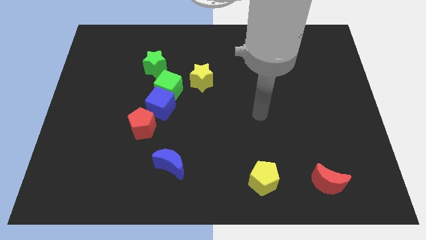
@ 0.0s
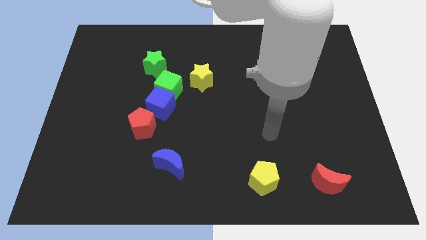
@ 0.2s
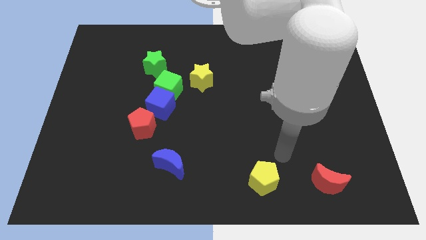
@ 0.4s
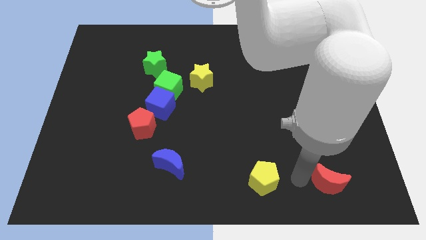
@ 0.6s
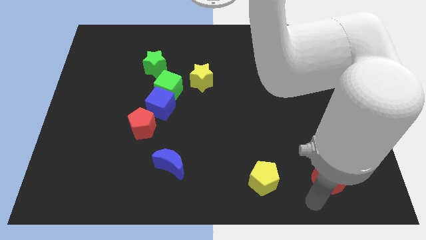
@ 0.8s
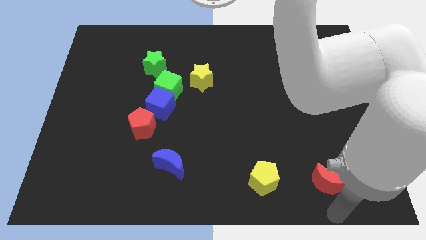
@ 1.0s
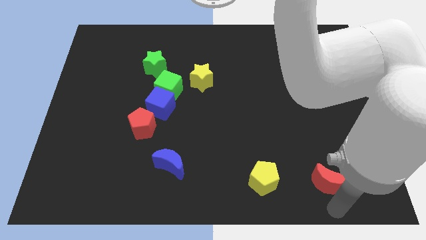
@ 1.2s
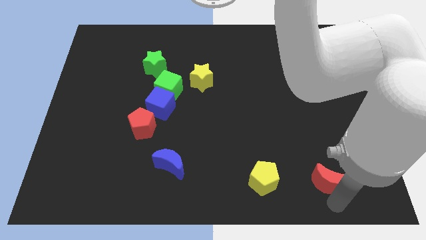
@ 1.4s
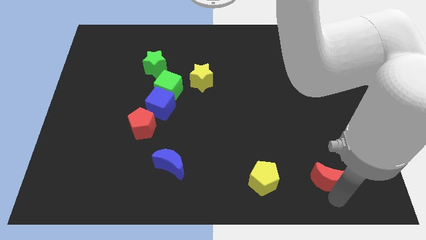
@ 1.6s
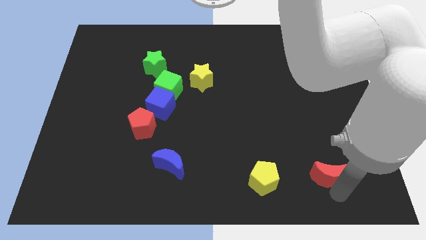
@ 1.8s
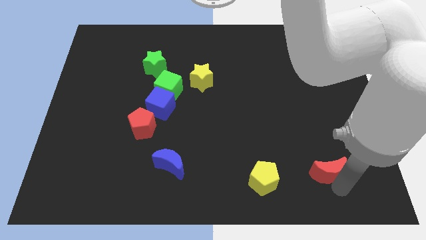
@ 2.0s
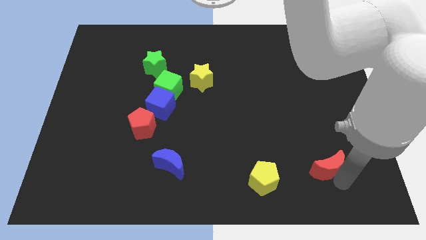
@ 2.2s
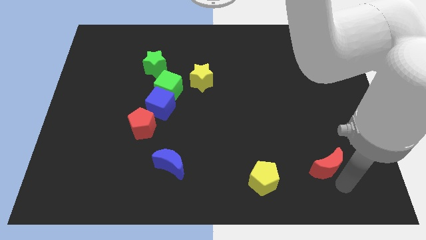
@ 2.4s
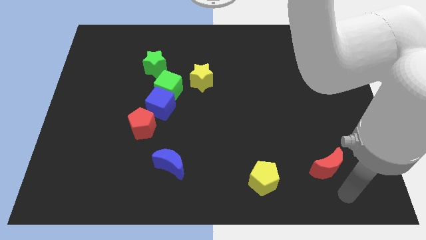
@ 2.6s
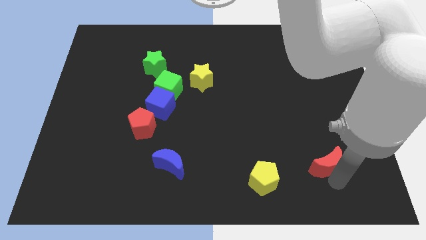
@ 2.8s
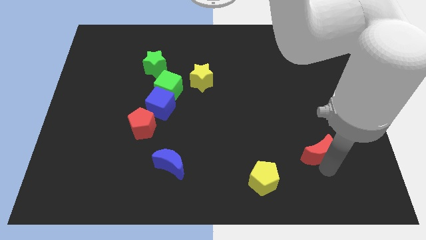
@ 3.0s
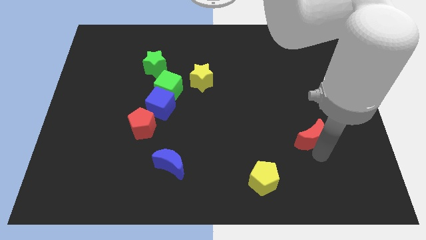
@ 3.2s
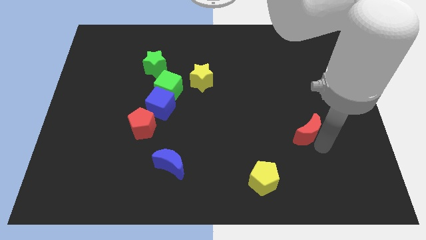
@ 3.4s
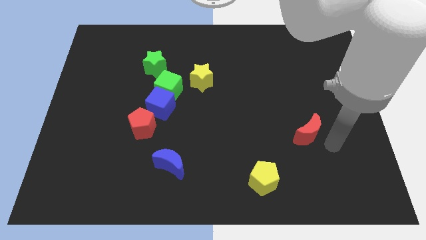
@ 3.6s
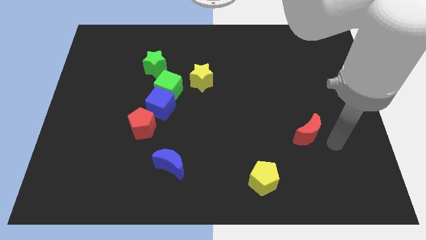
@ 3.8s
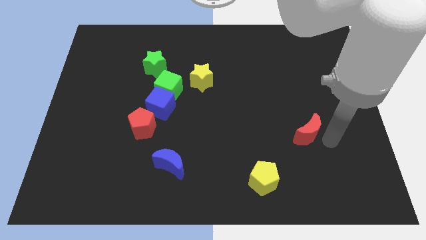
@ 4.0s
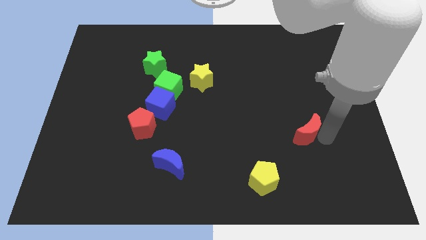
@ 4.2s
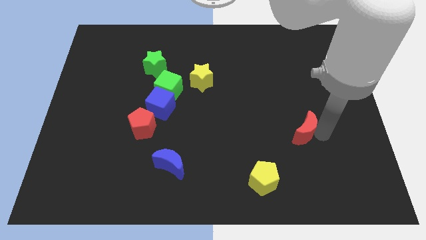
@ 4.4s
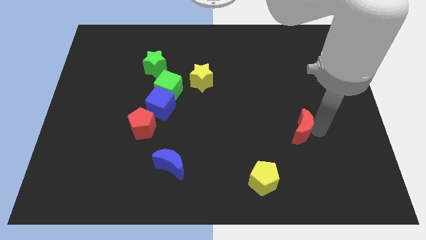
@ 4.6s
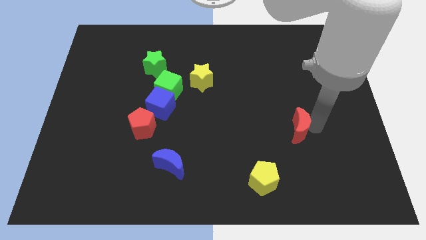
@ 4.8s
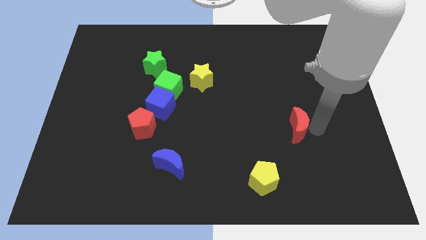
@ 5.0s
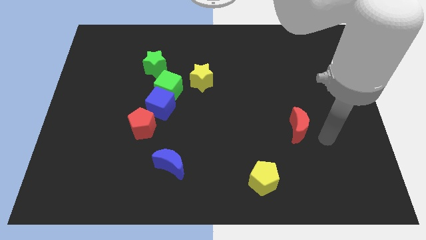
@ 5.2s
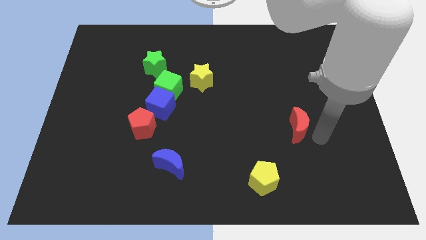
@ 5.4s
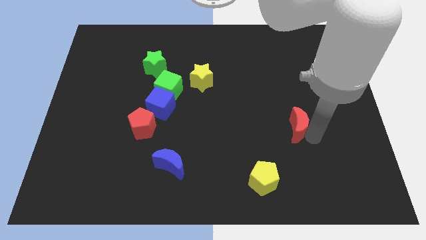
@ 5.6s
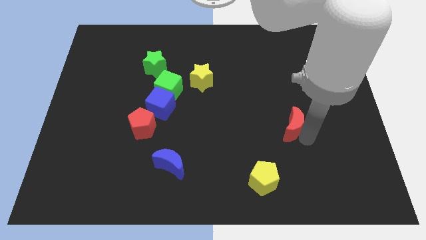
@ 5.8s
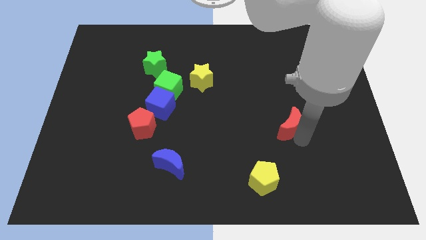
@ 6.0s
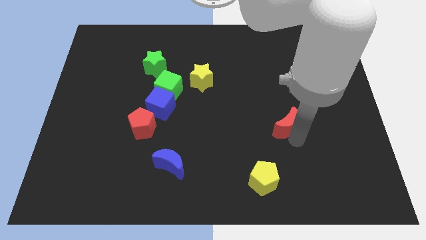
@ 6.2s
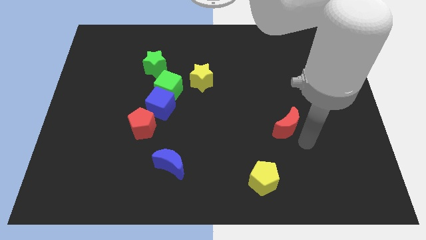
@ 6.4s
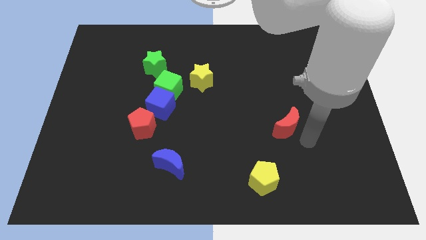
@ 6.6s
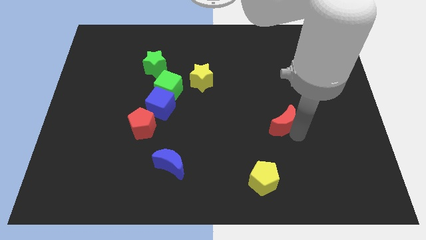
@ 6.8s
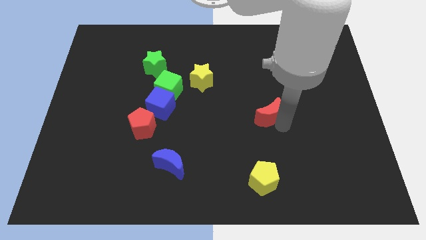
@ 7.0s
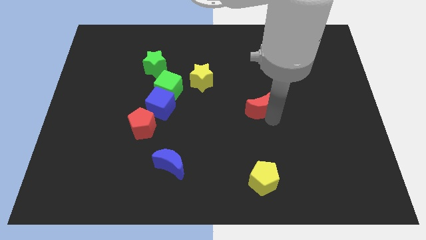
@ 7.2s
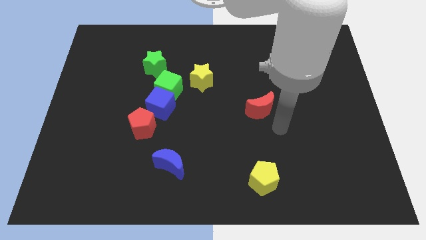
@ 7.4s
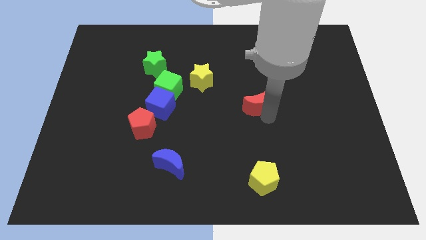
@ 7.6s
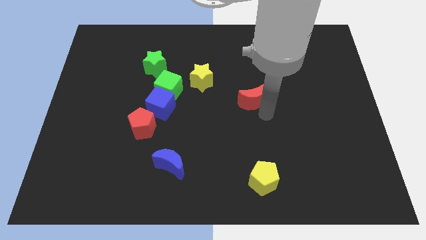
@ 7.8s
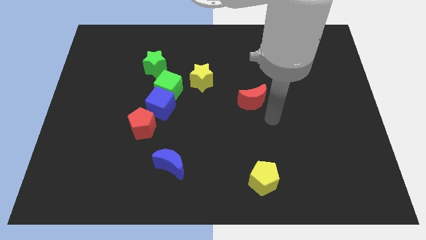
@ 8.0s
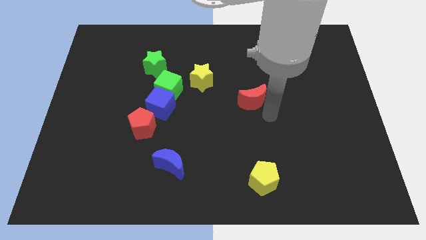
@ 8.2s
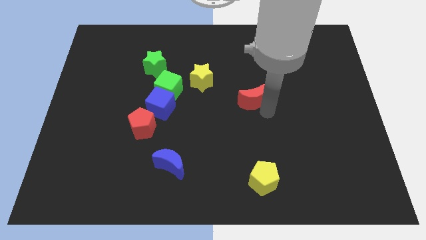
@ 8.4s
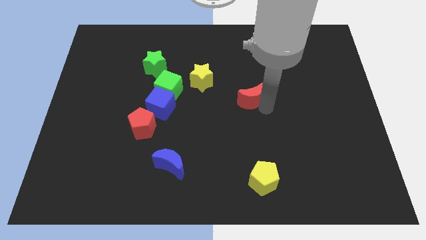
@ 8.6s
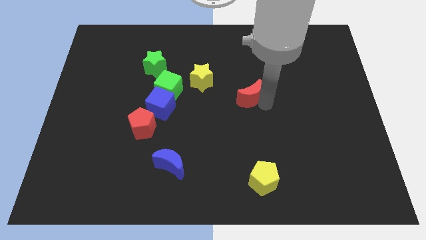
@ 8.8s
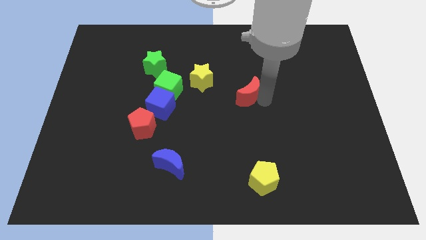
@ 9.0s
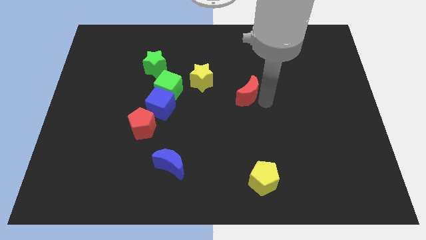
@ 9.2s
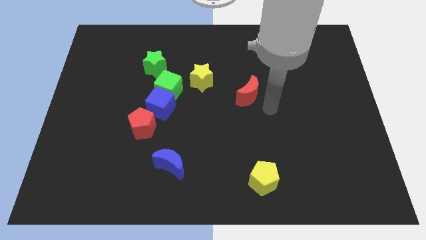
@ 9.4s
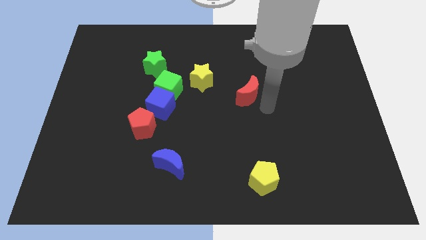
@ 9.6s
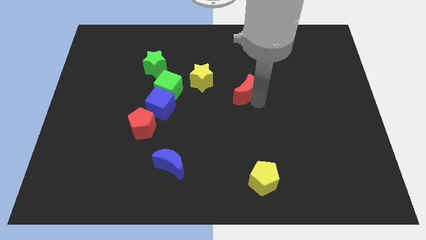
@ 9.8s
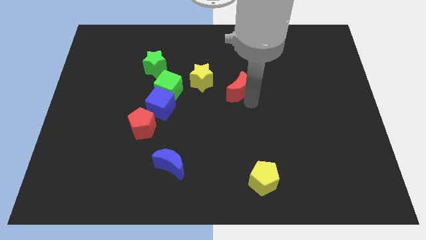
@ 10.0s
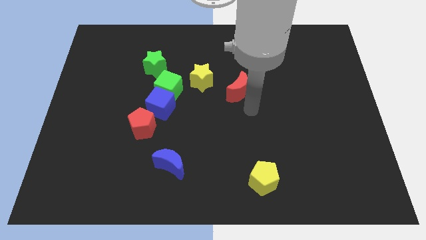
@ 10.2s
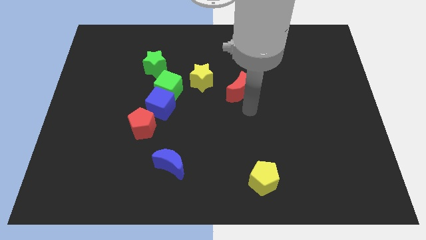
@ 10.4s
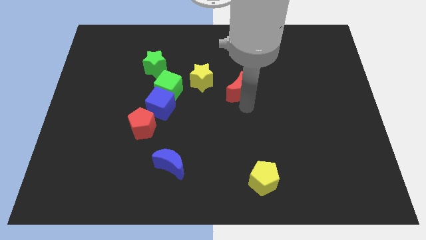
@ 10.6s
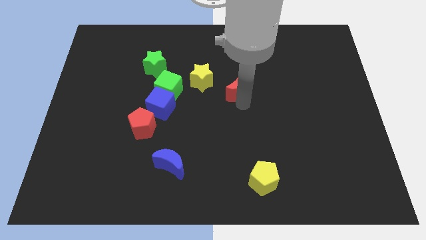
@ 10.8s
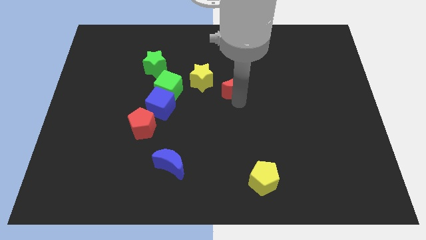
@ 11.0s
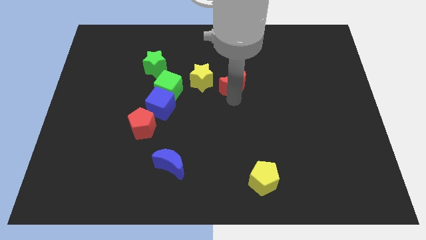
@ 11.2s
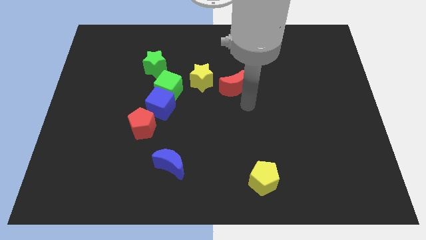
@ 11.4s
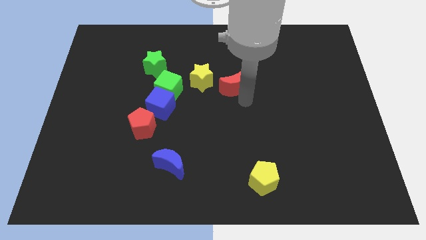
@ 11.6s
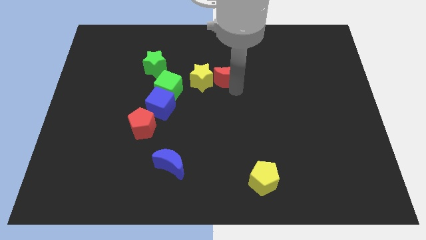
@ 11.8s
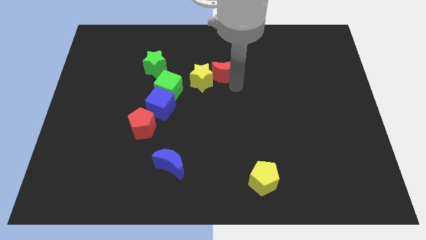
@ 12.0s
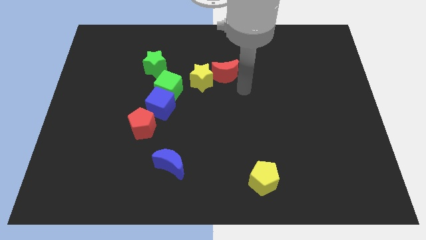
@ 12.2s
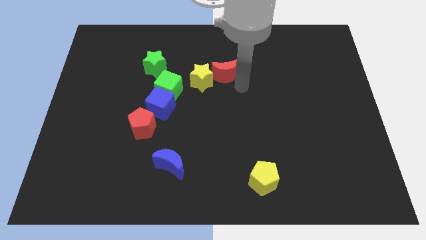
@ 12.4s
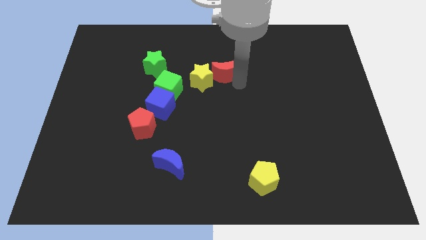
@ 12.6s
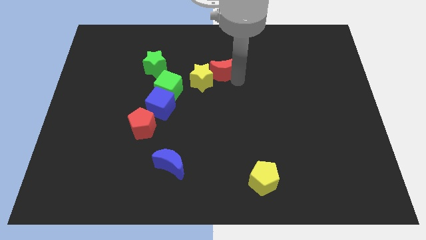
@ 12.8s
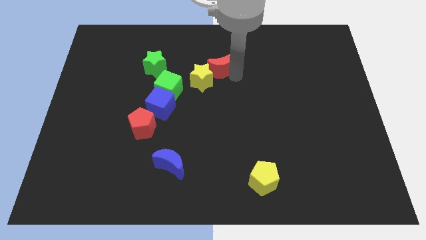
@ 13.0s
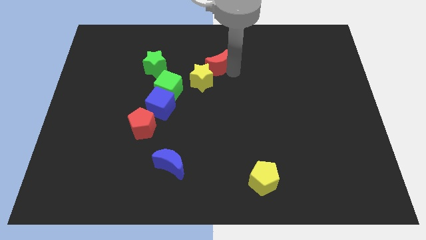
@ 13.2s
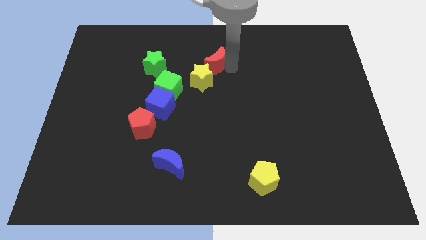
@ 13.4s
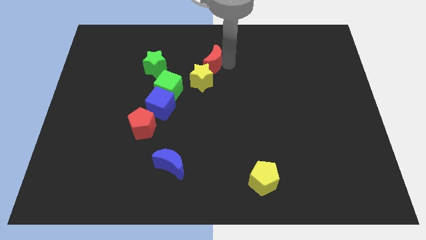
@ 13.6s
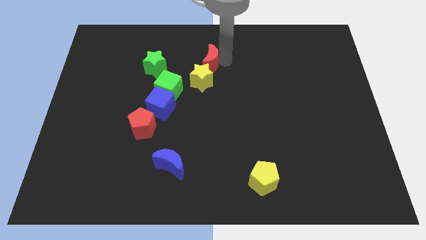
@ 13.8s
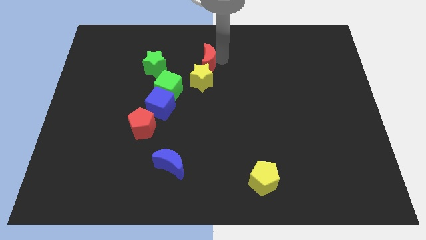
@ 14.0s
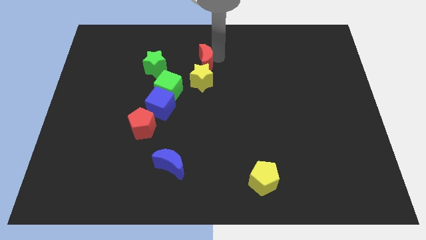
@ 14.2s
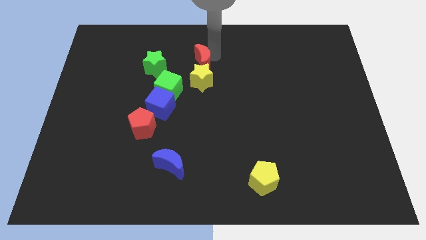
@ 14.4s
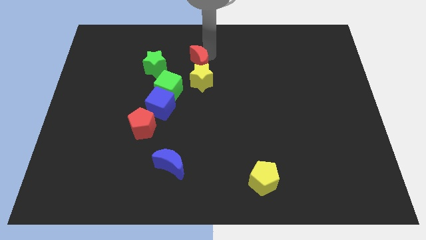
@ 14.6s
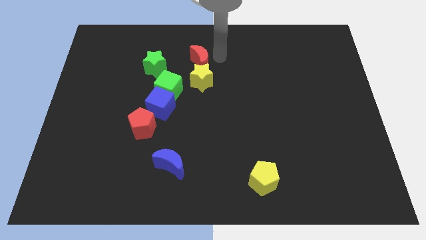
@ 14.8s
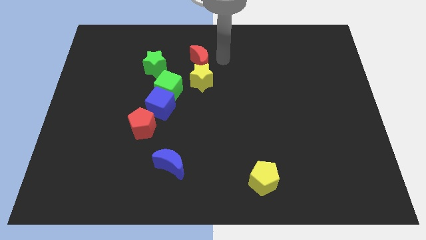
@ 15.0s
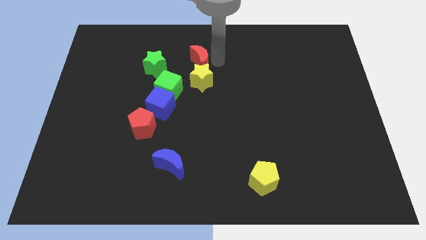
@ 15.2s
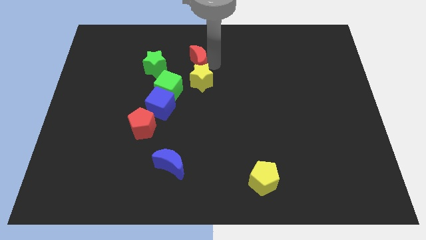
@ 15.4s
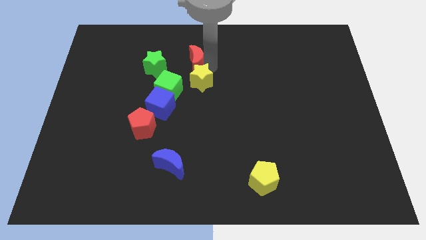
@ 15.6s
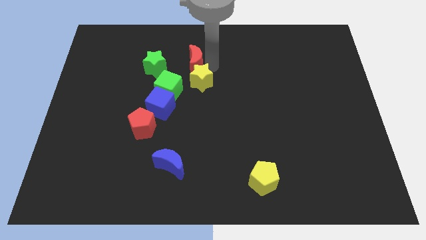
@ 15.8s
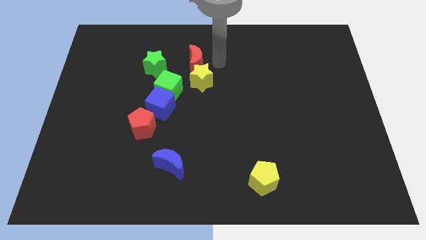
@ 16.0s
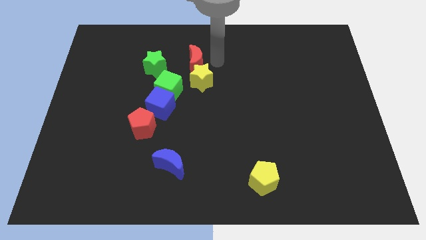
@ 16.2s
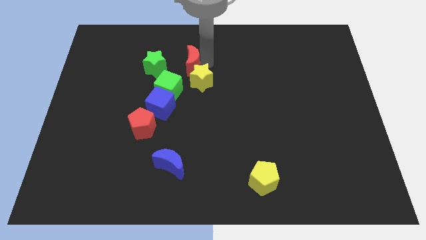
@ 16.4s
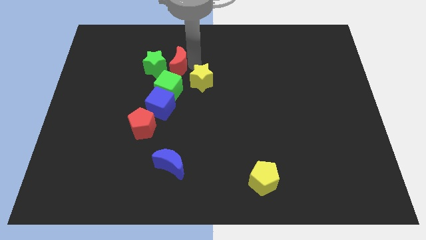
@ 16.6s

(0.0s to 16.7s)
put the red moon close to the green star
